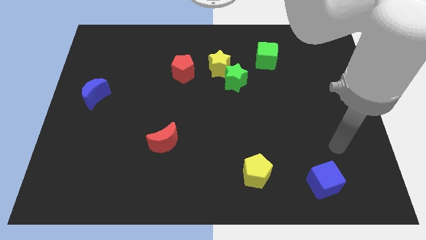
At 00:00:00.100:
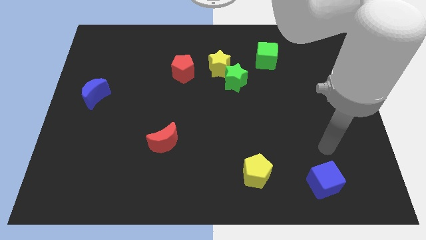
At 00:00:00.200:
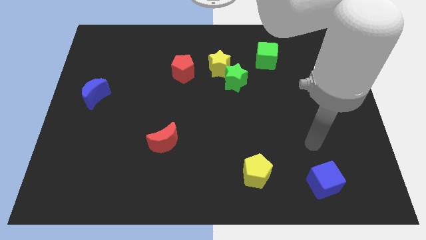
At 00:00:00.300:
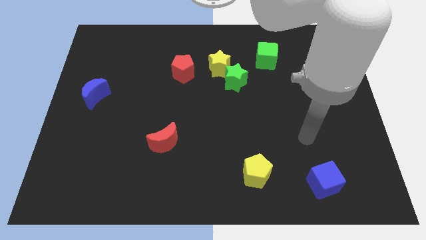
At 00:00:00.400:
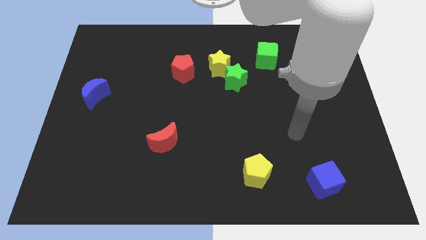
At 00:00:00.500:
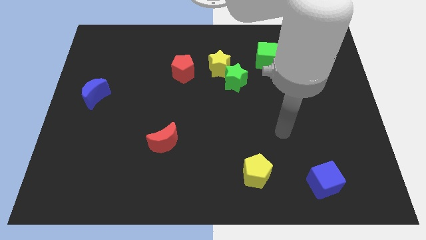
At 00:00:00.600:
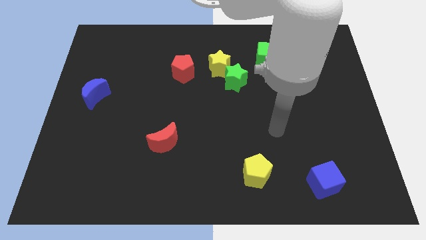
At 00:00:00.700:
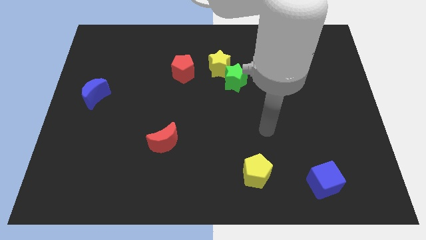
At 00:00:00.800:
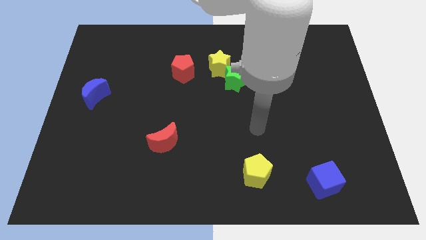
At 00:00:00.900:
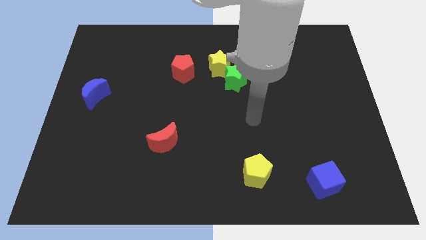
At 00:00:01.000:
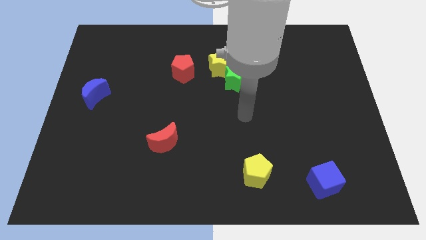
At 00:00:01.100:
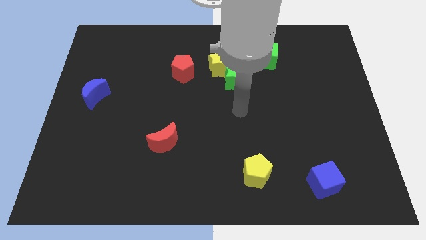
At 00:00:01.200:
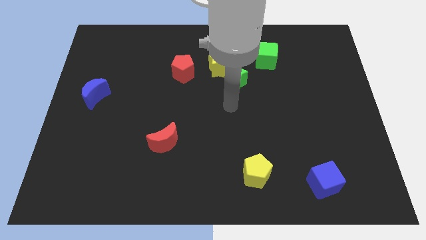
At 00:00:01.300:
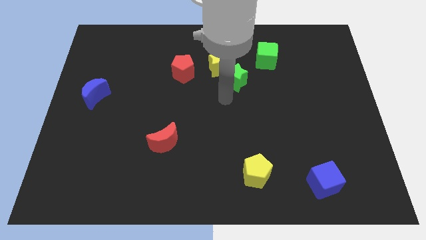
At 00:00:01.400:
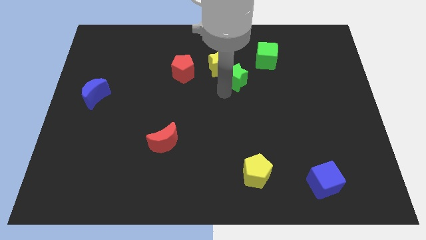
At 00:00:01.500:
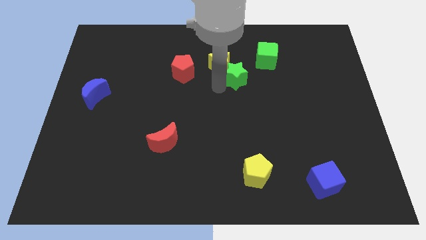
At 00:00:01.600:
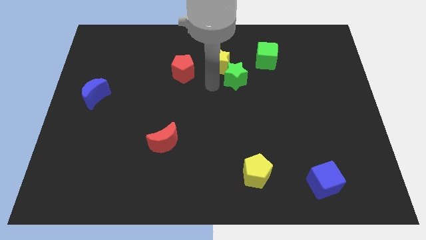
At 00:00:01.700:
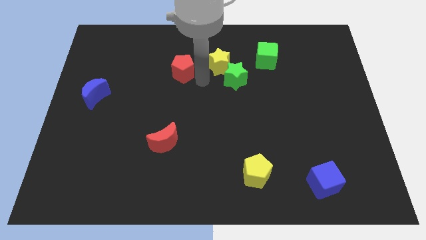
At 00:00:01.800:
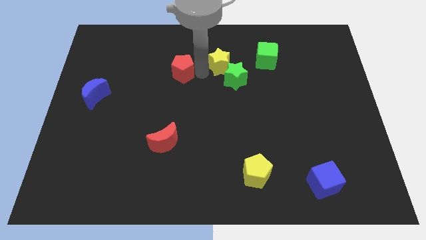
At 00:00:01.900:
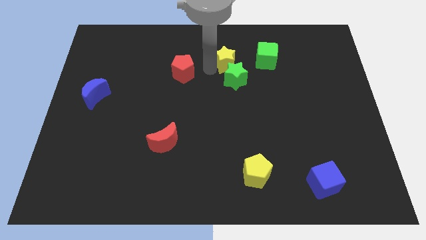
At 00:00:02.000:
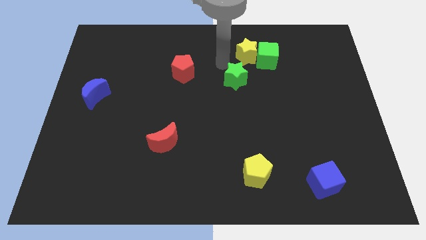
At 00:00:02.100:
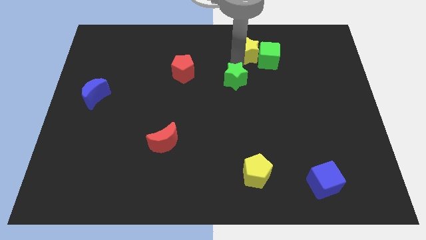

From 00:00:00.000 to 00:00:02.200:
pull the green star apart from the yellow star

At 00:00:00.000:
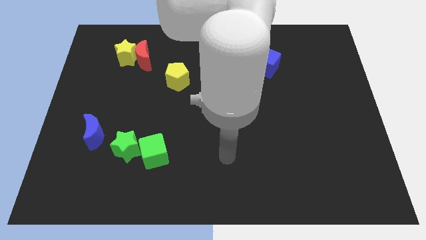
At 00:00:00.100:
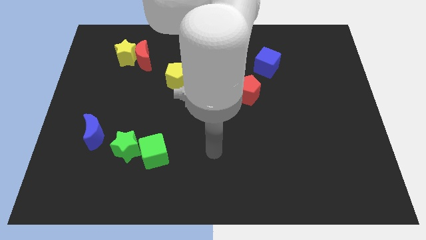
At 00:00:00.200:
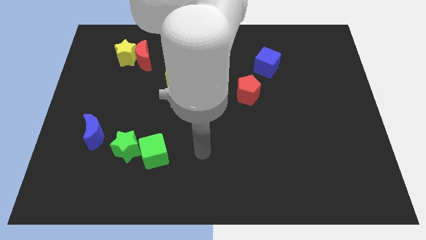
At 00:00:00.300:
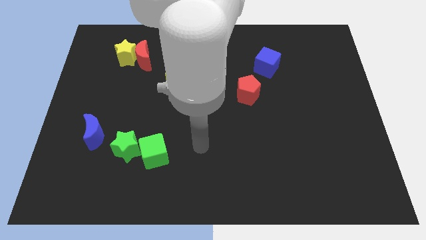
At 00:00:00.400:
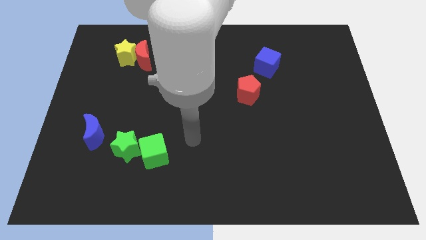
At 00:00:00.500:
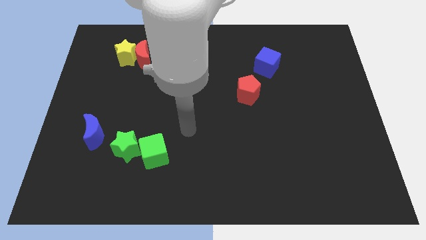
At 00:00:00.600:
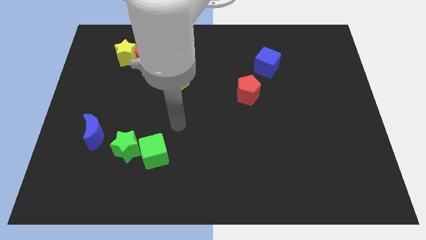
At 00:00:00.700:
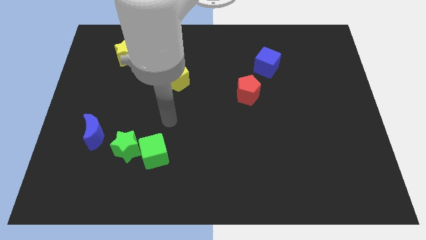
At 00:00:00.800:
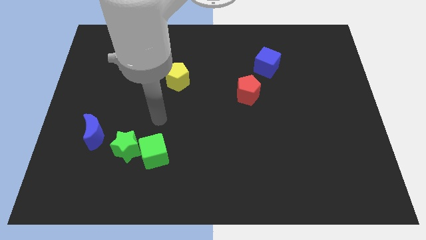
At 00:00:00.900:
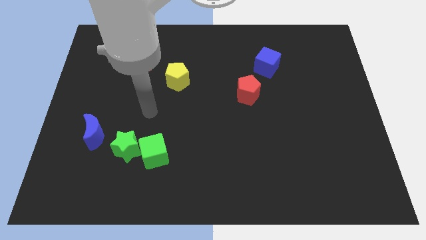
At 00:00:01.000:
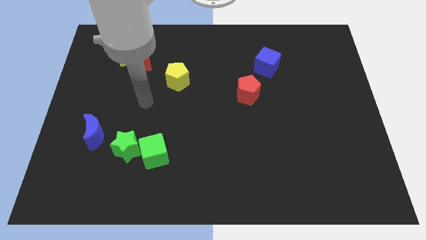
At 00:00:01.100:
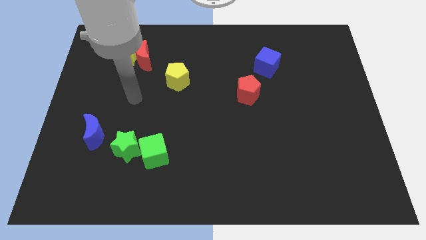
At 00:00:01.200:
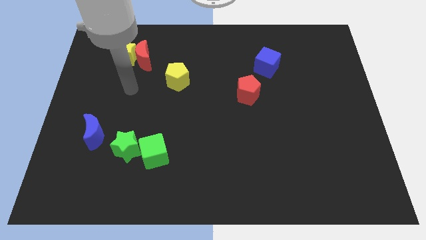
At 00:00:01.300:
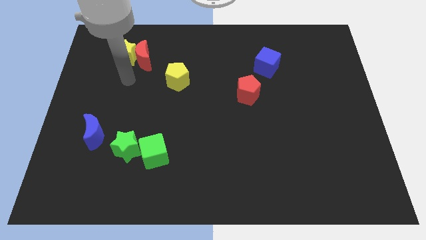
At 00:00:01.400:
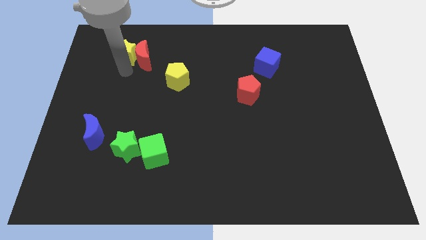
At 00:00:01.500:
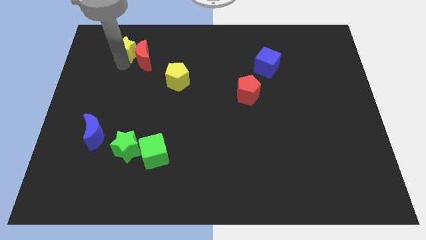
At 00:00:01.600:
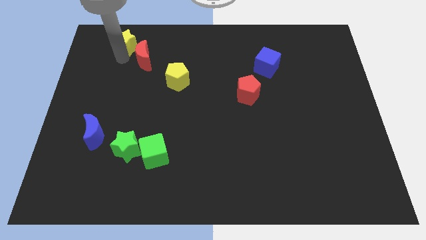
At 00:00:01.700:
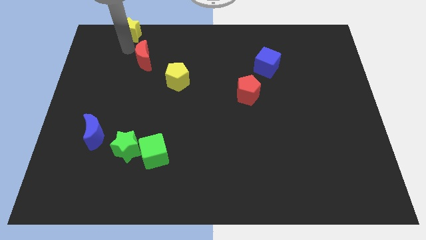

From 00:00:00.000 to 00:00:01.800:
separate the red moon from the yellow star

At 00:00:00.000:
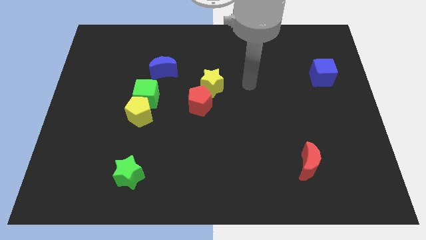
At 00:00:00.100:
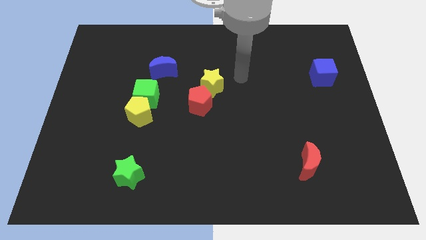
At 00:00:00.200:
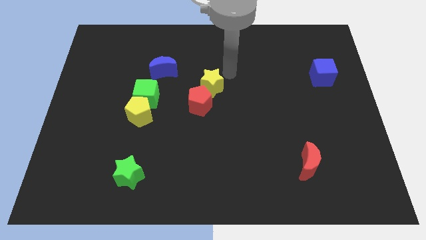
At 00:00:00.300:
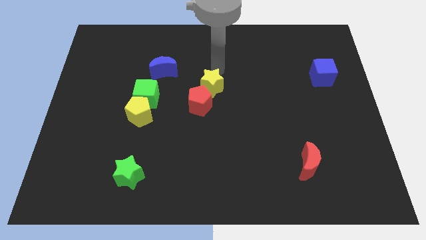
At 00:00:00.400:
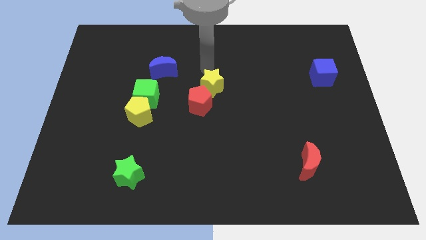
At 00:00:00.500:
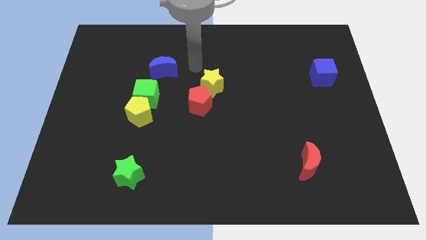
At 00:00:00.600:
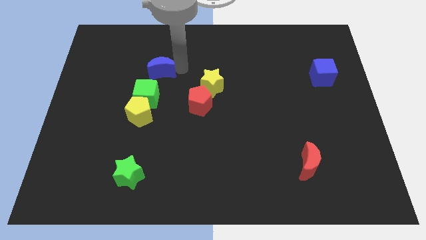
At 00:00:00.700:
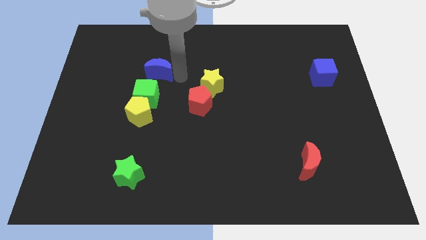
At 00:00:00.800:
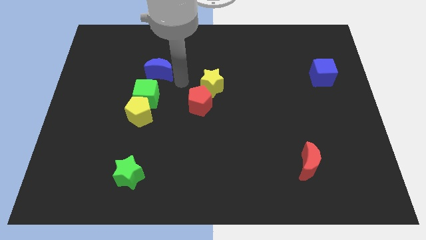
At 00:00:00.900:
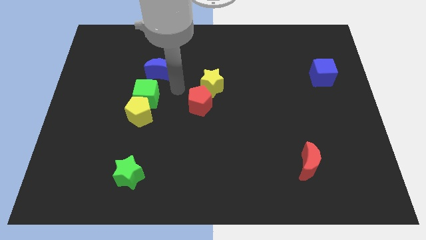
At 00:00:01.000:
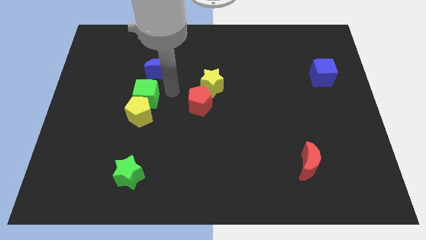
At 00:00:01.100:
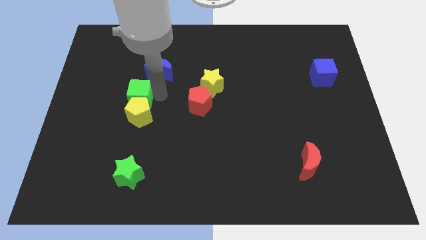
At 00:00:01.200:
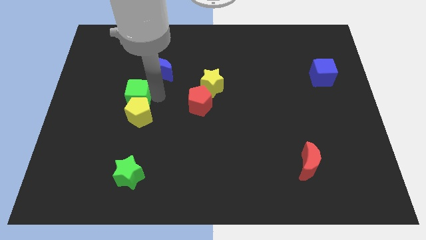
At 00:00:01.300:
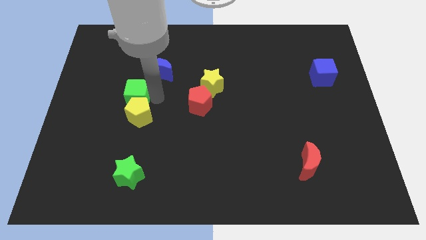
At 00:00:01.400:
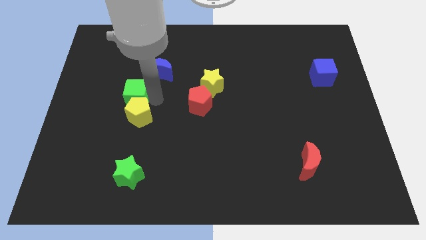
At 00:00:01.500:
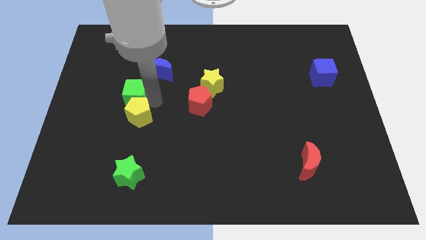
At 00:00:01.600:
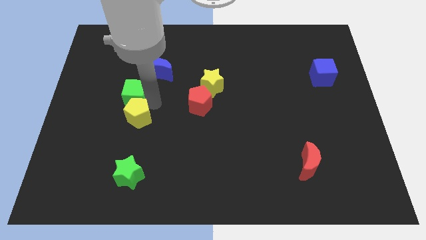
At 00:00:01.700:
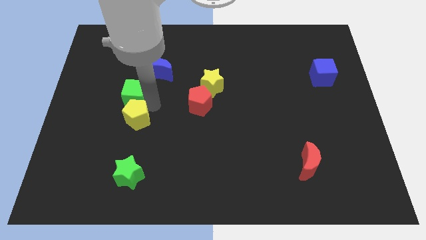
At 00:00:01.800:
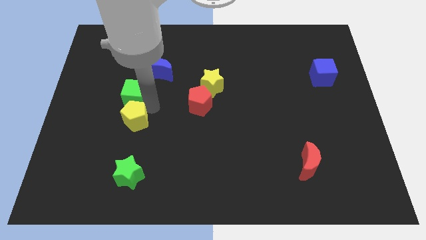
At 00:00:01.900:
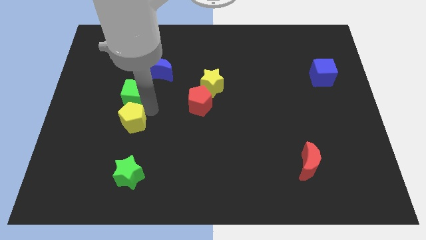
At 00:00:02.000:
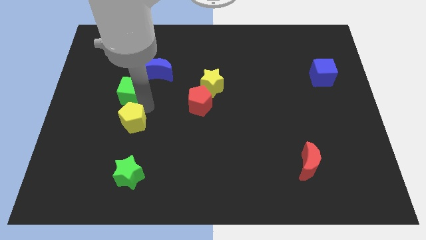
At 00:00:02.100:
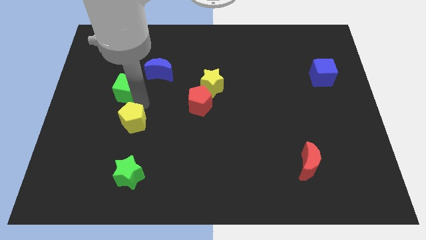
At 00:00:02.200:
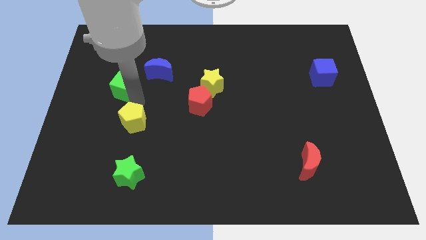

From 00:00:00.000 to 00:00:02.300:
move the yellow pentagon away from the green cube

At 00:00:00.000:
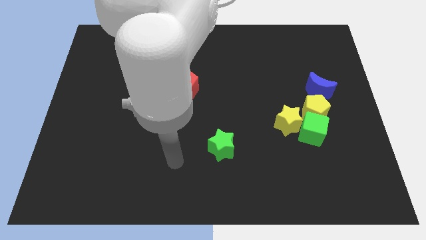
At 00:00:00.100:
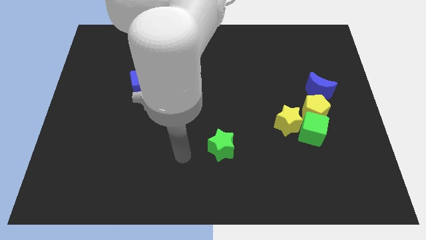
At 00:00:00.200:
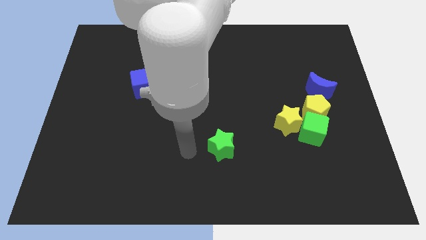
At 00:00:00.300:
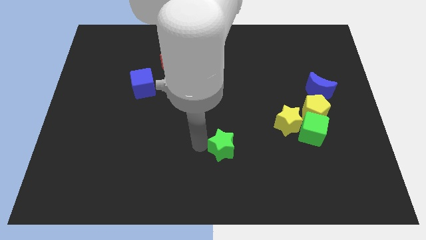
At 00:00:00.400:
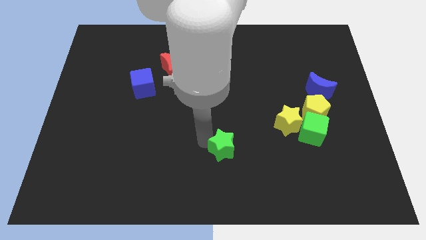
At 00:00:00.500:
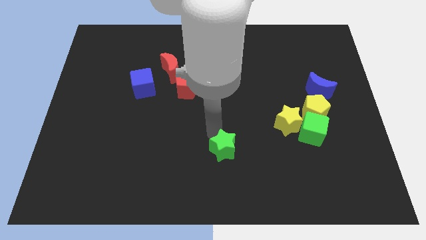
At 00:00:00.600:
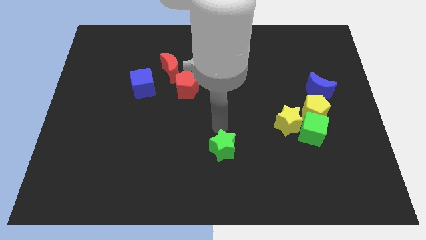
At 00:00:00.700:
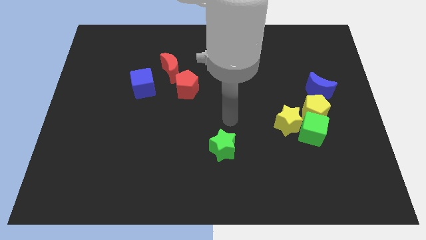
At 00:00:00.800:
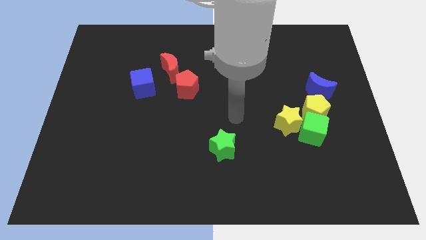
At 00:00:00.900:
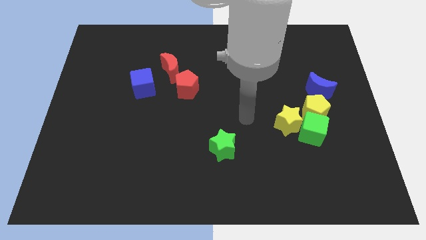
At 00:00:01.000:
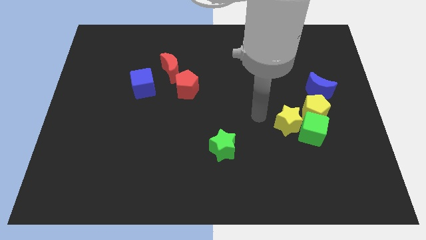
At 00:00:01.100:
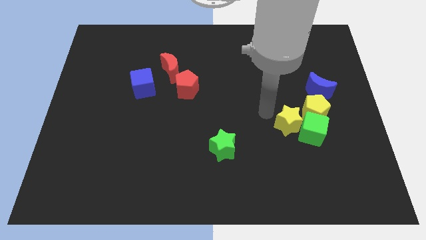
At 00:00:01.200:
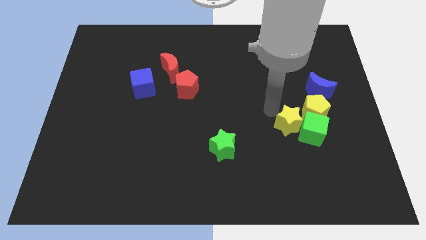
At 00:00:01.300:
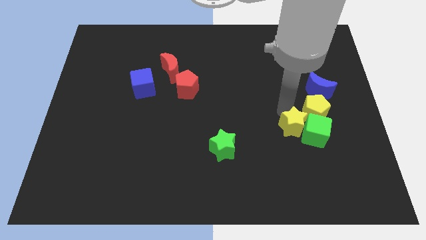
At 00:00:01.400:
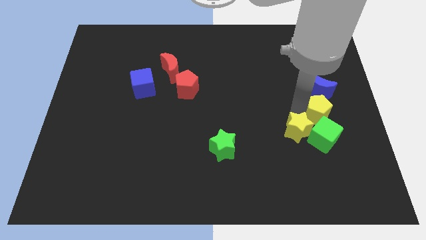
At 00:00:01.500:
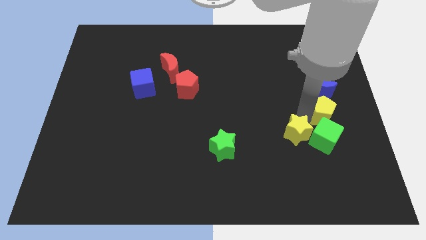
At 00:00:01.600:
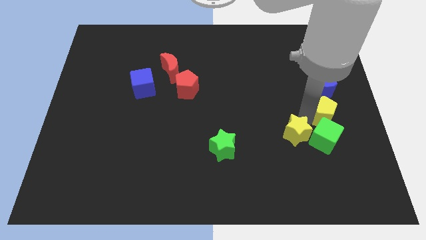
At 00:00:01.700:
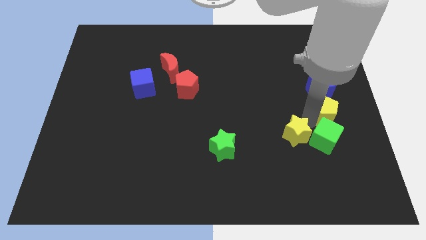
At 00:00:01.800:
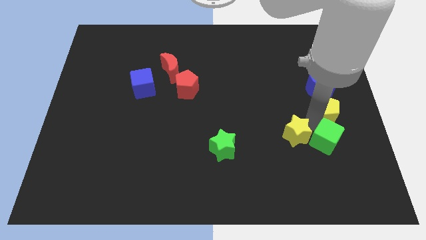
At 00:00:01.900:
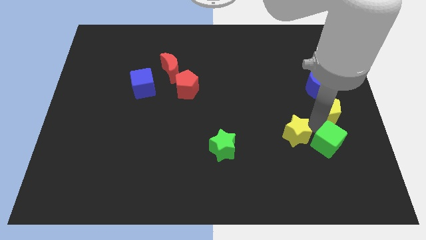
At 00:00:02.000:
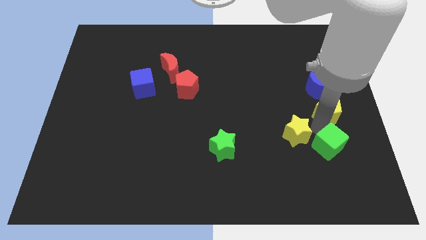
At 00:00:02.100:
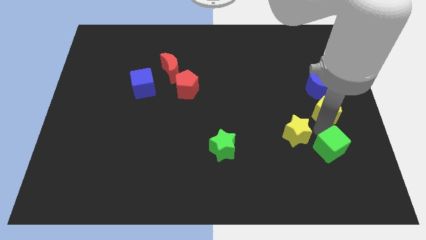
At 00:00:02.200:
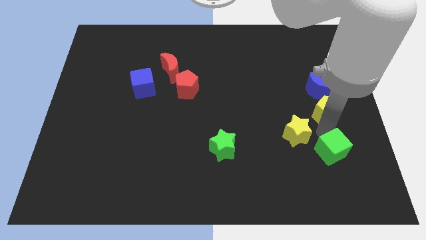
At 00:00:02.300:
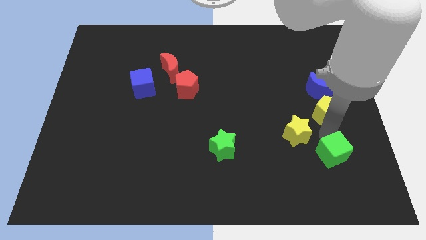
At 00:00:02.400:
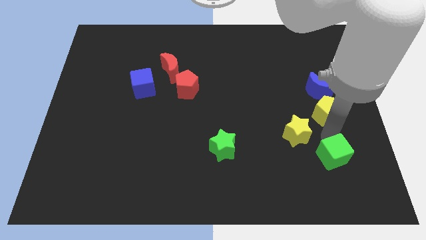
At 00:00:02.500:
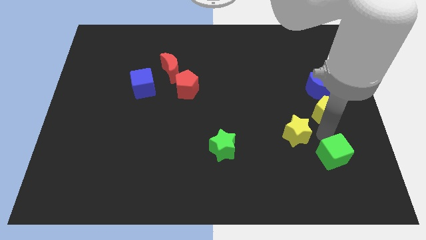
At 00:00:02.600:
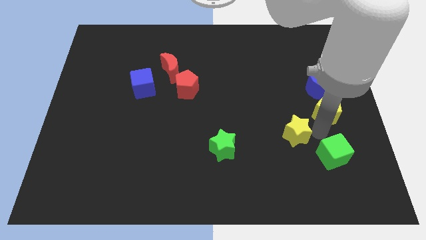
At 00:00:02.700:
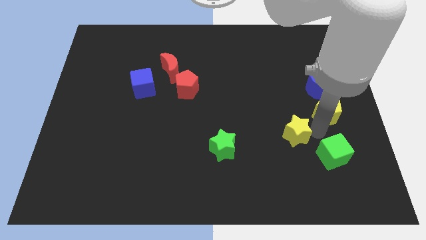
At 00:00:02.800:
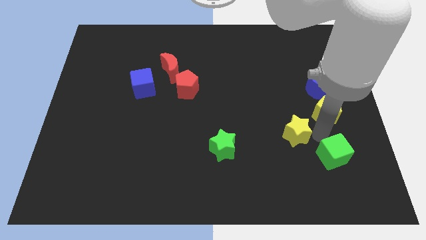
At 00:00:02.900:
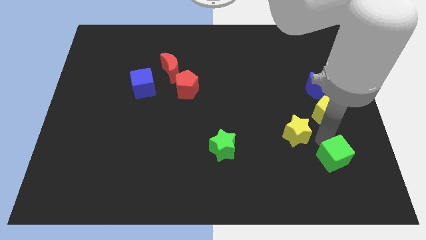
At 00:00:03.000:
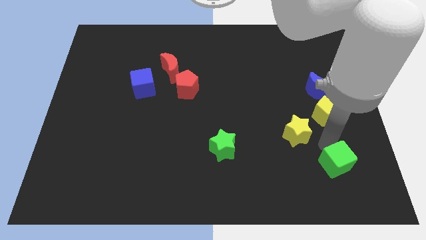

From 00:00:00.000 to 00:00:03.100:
separate the green cube from the yellow pentagon and yellow star
